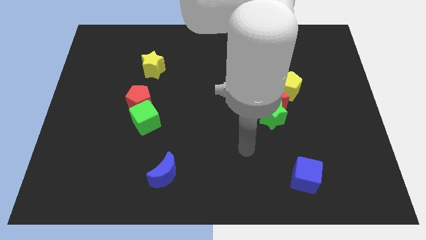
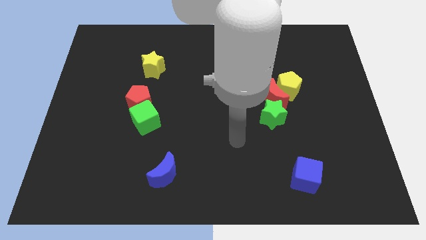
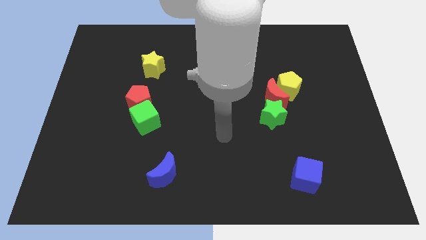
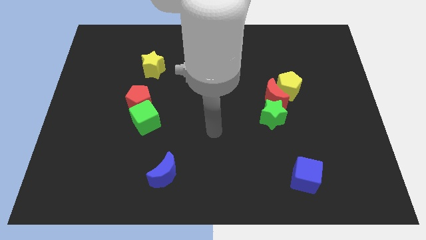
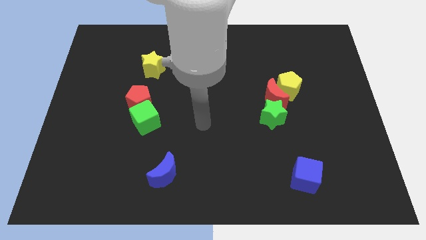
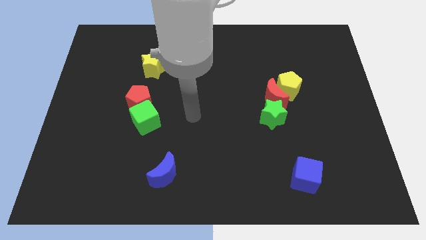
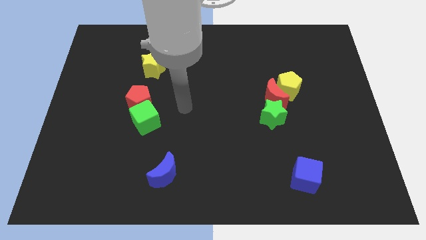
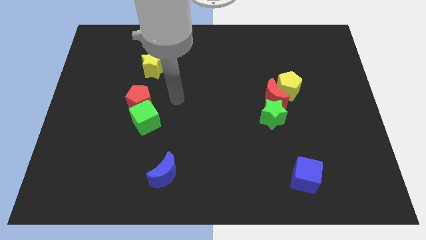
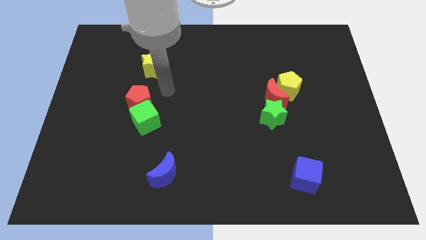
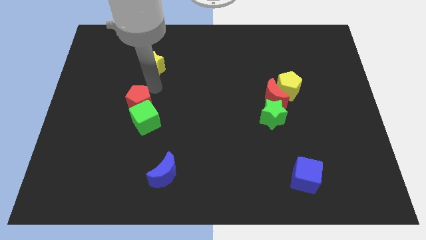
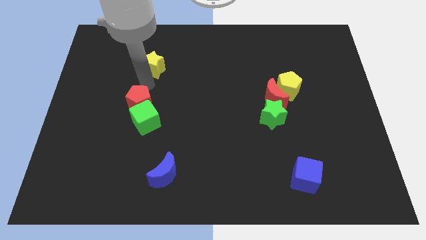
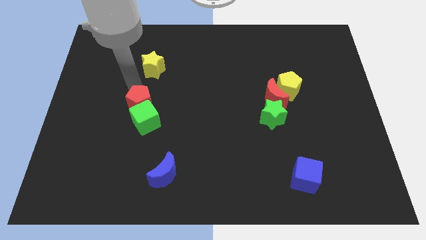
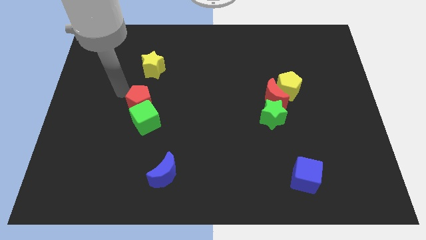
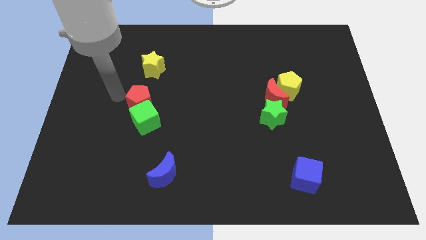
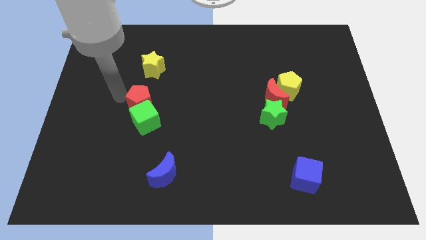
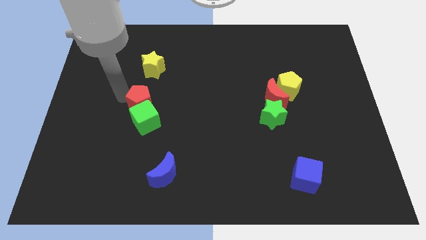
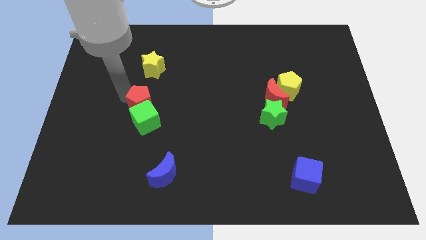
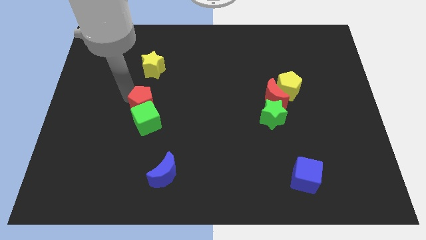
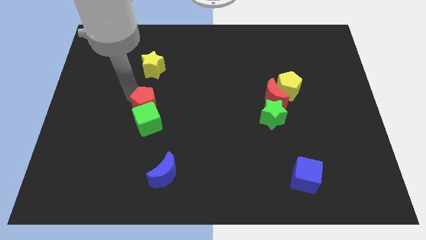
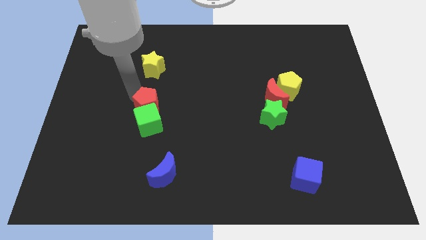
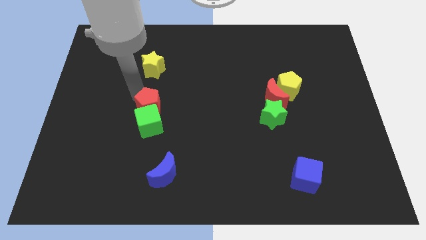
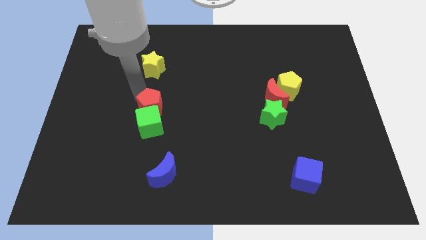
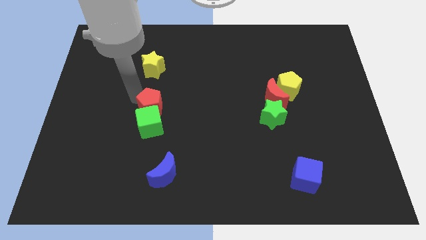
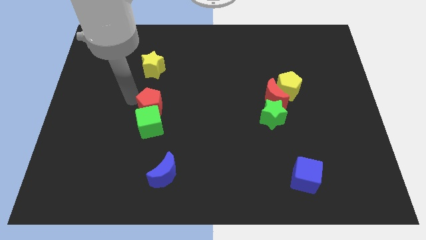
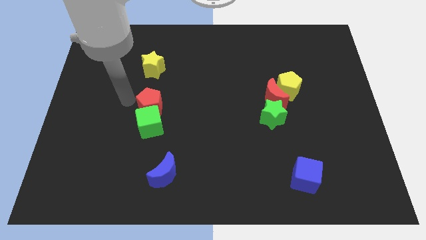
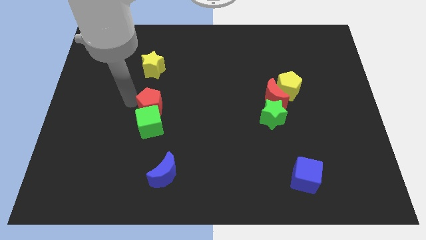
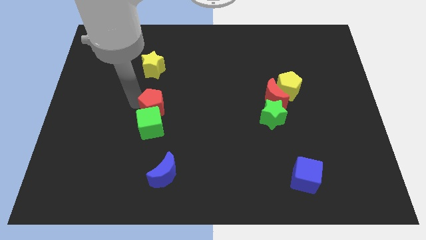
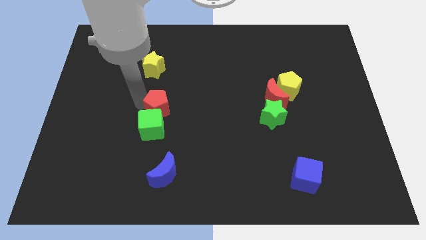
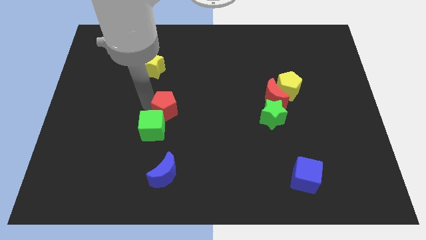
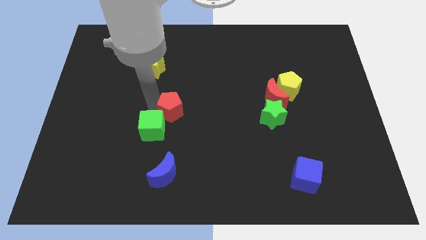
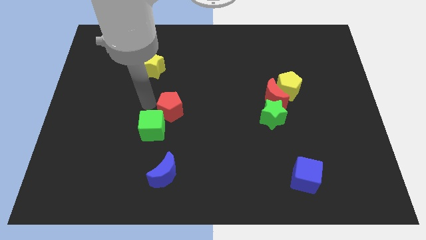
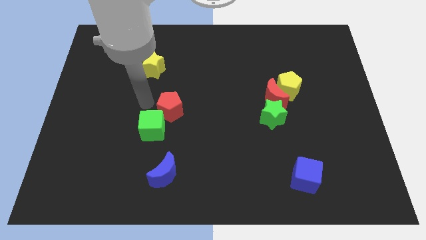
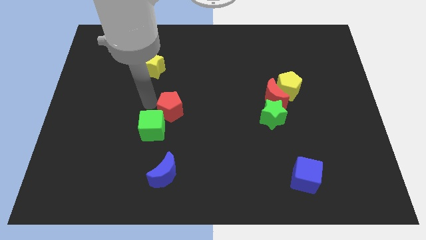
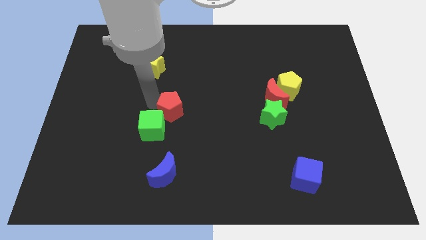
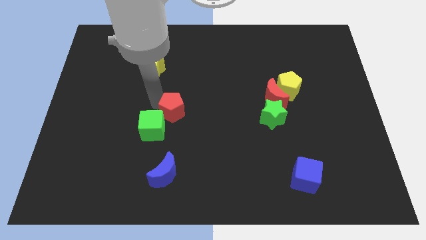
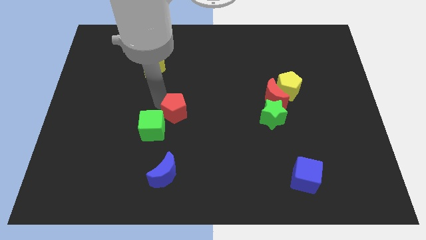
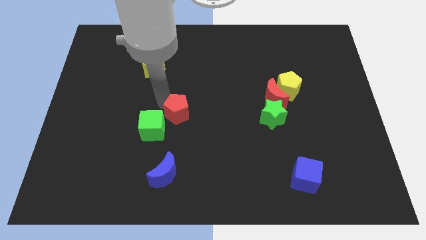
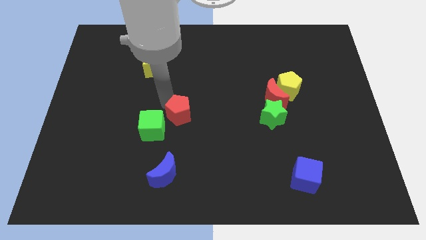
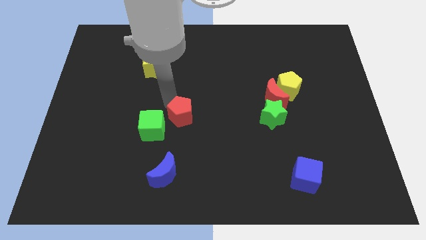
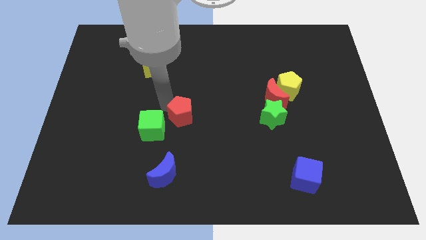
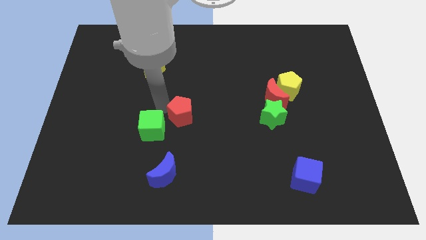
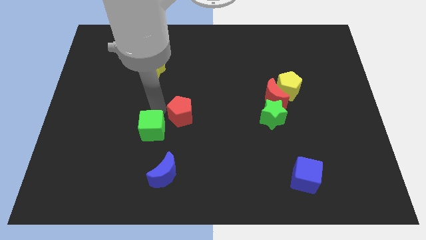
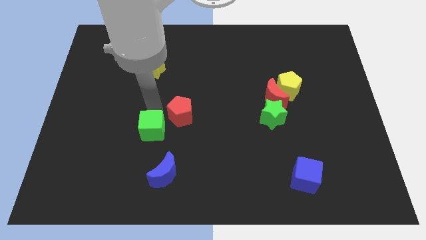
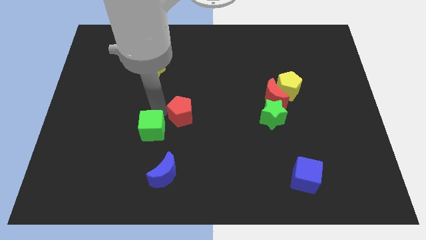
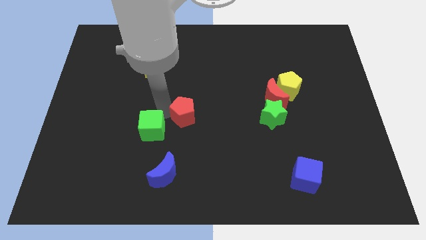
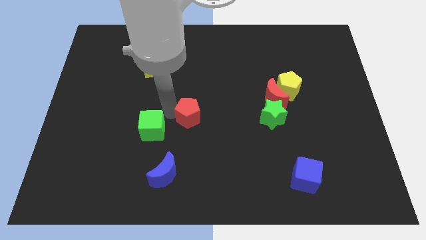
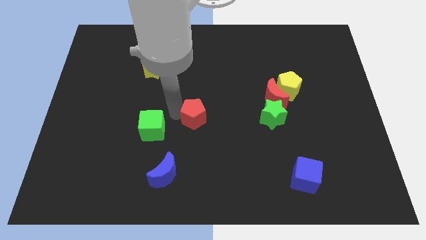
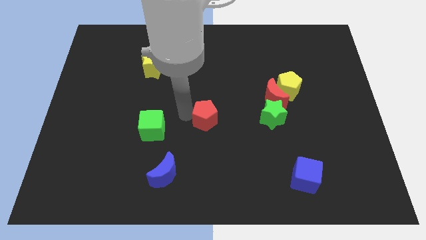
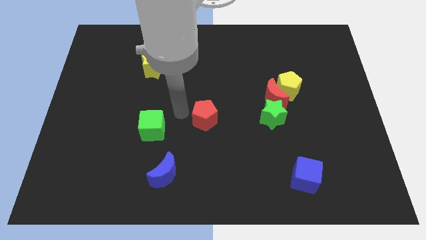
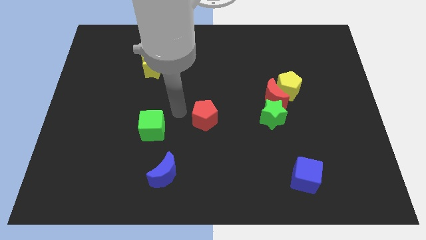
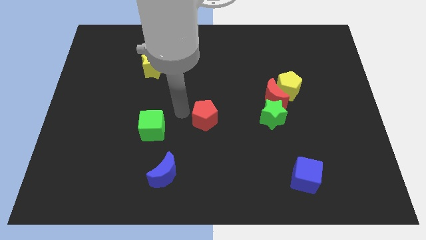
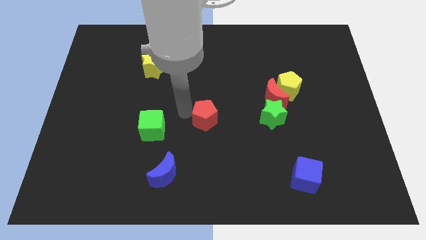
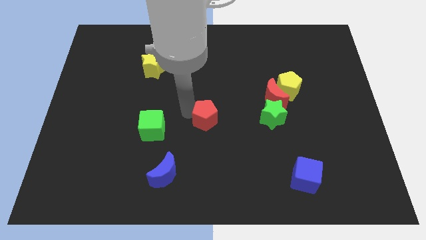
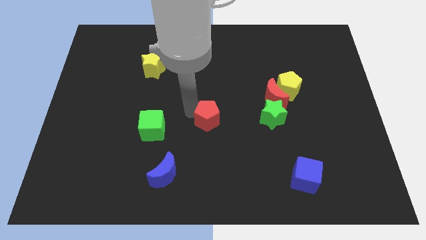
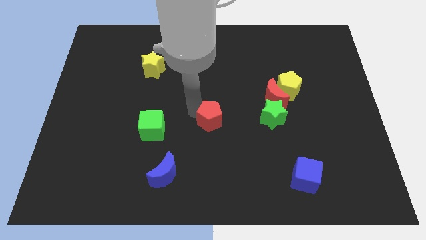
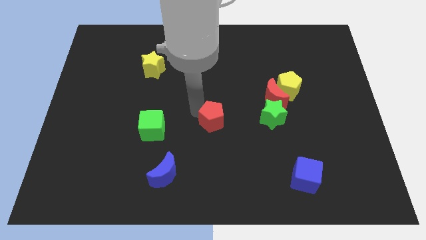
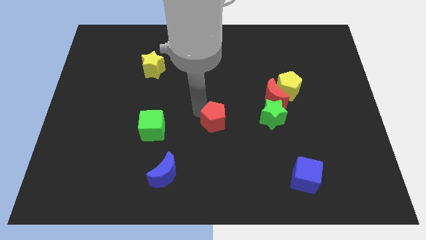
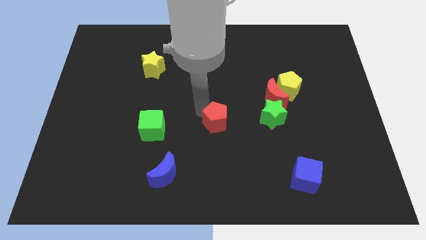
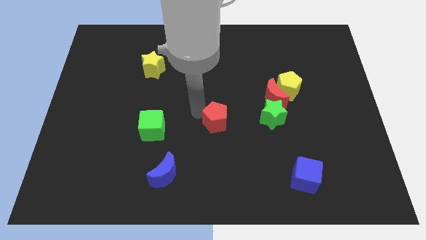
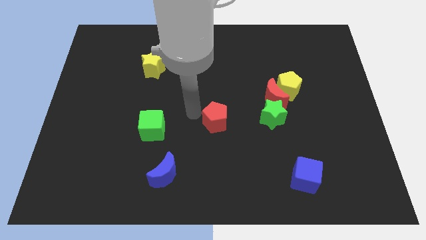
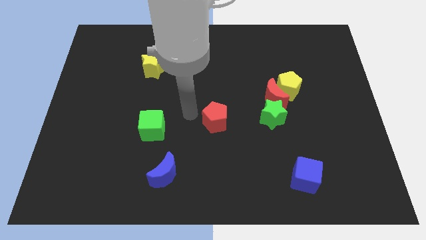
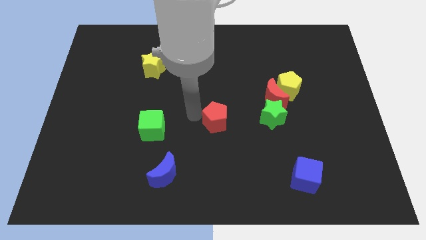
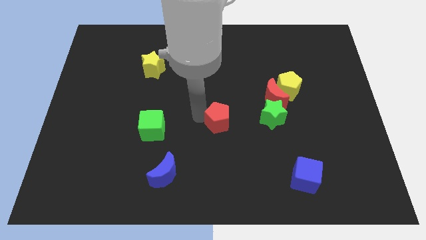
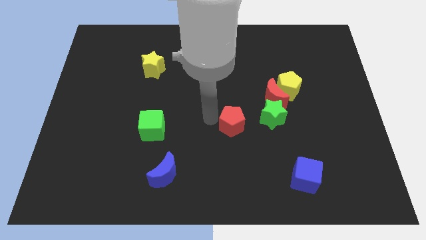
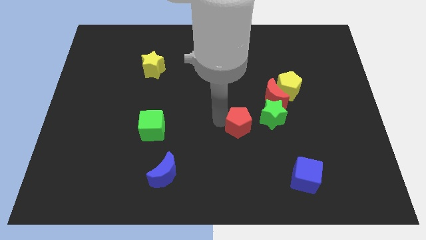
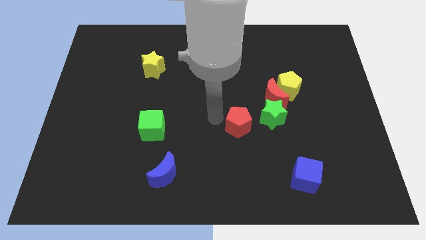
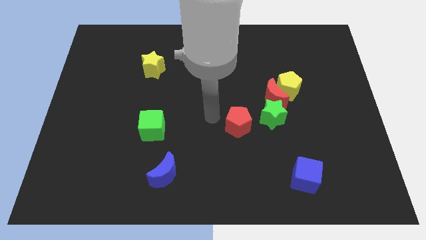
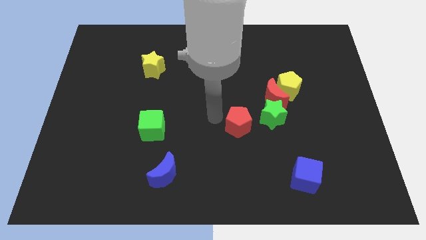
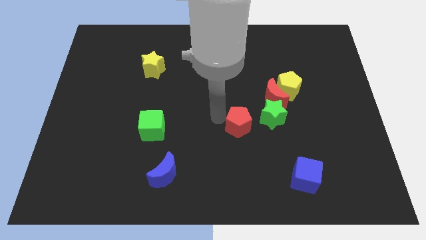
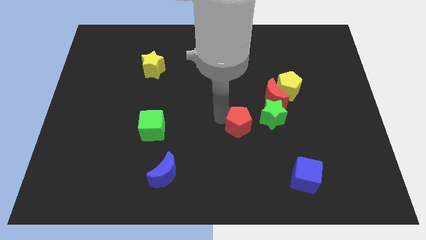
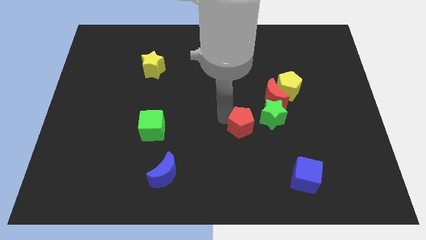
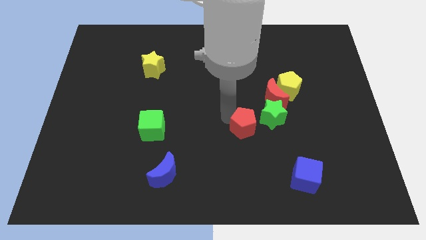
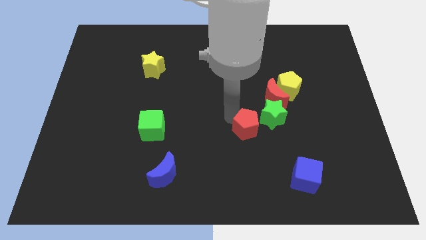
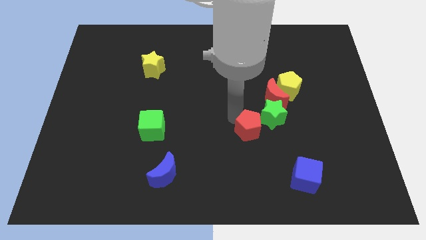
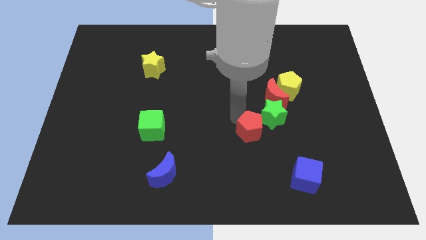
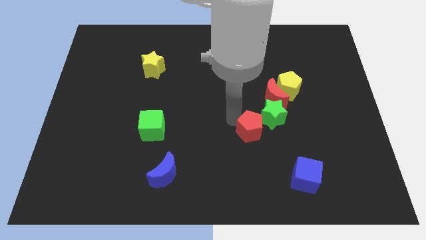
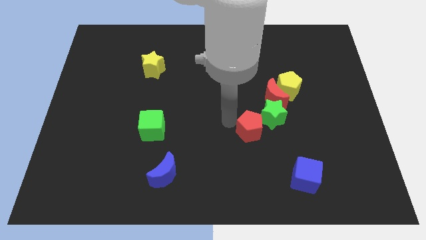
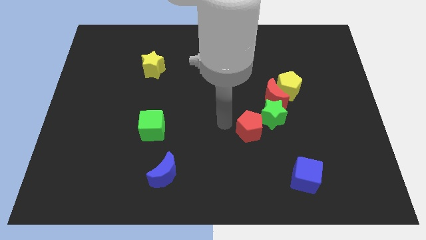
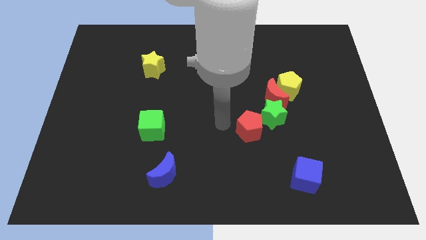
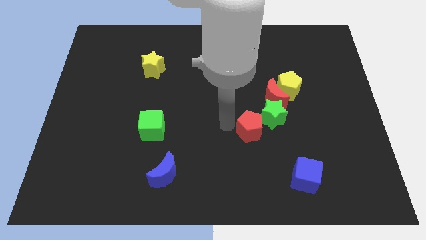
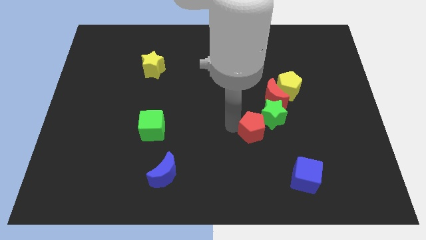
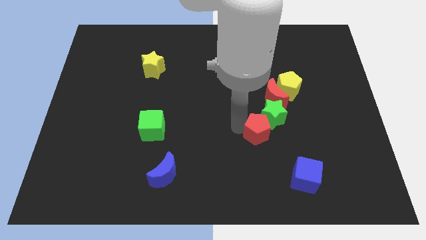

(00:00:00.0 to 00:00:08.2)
move the red pentagon to the bottom side of the red moon
